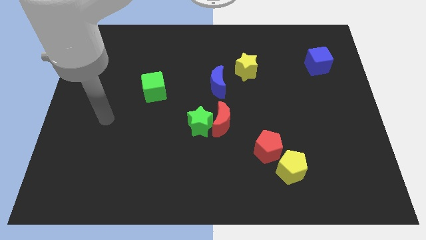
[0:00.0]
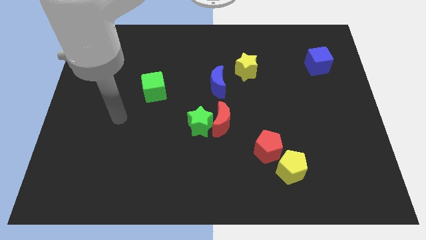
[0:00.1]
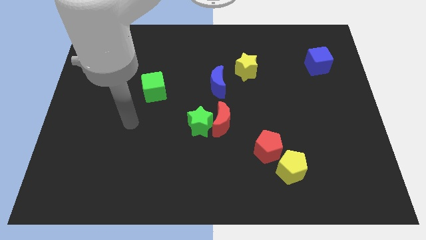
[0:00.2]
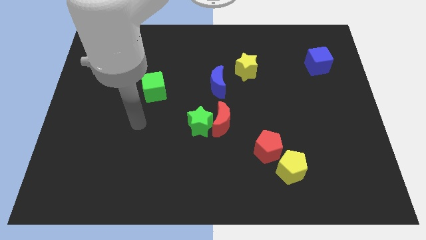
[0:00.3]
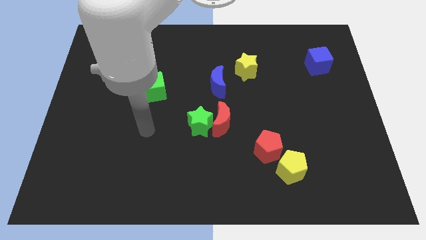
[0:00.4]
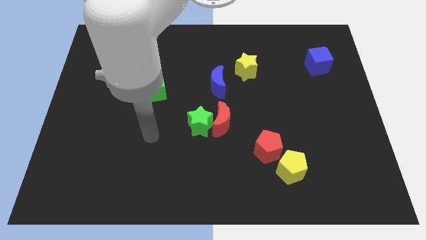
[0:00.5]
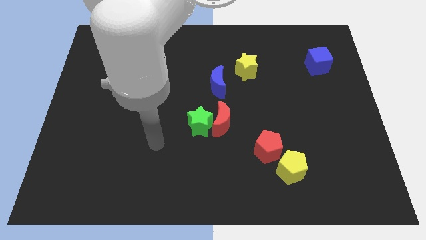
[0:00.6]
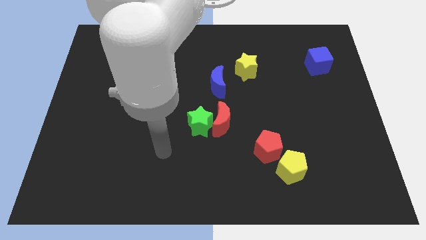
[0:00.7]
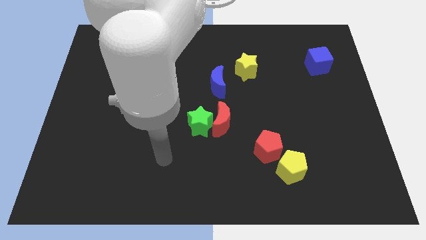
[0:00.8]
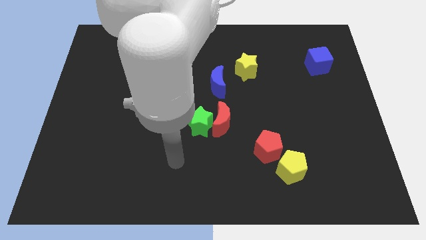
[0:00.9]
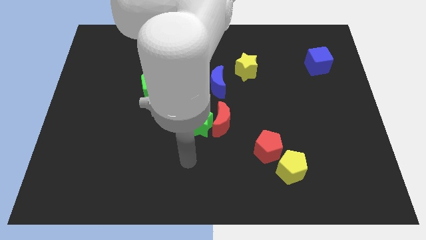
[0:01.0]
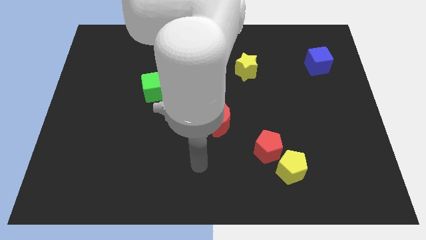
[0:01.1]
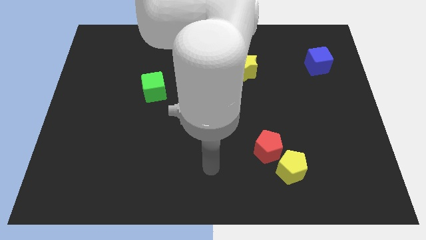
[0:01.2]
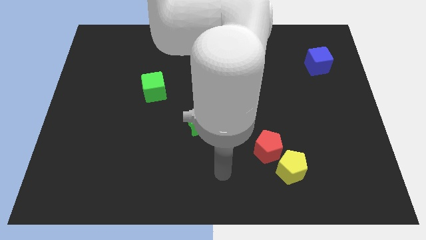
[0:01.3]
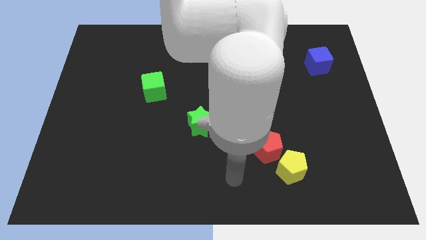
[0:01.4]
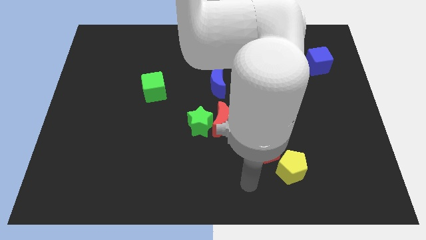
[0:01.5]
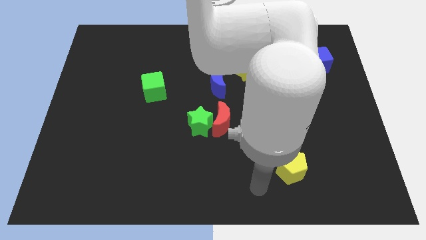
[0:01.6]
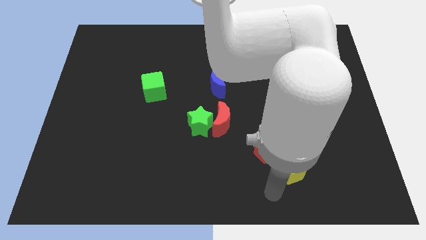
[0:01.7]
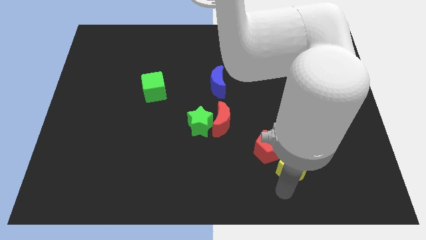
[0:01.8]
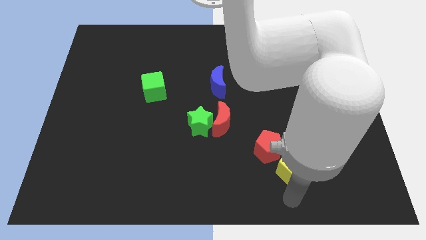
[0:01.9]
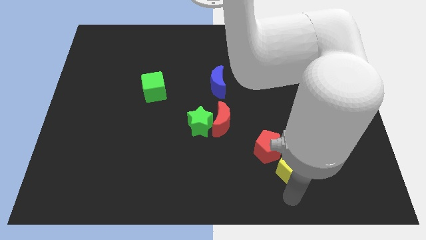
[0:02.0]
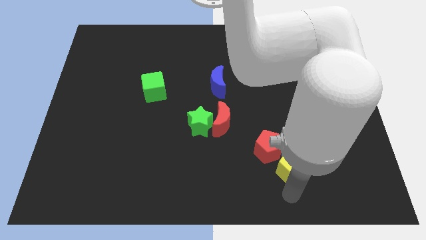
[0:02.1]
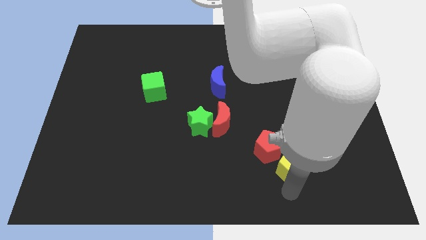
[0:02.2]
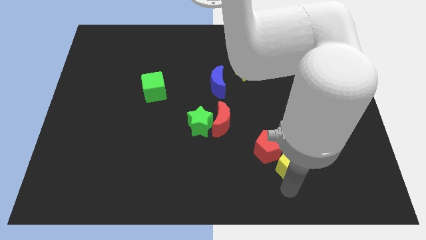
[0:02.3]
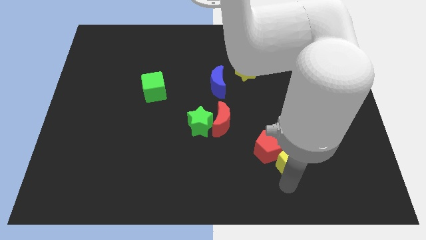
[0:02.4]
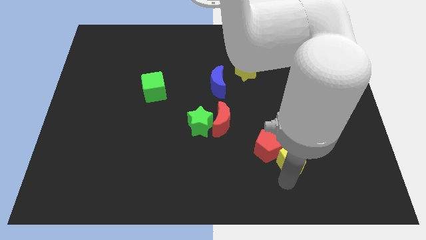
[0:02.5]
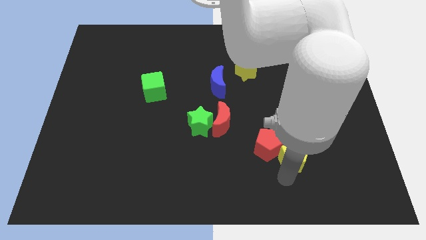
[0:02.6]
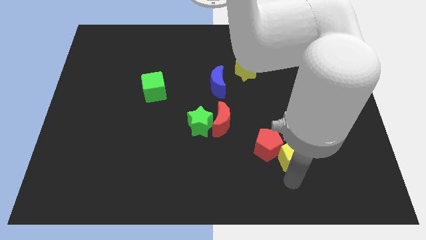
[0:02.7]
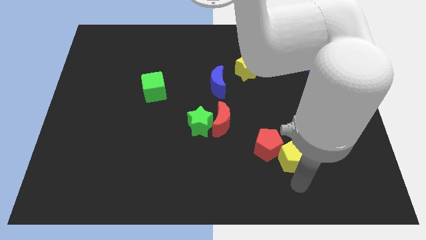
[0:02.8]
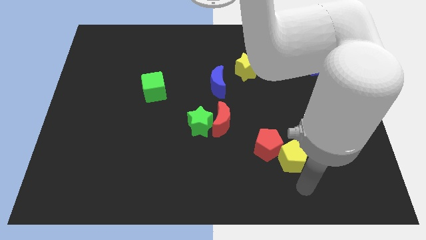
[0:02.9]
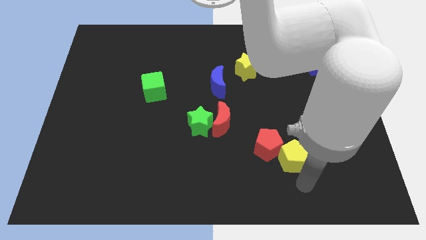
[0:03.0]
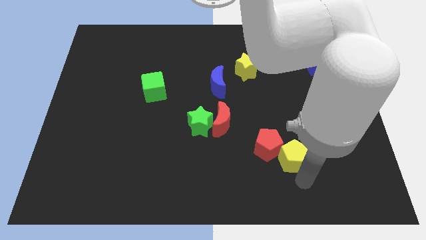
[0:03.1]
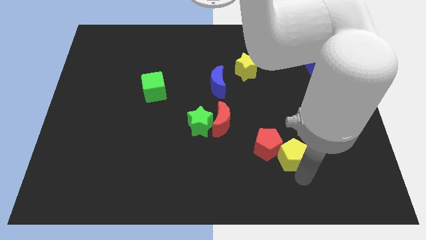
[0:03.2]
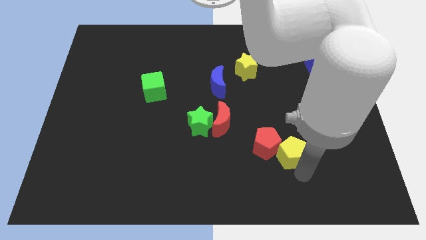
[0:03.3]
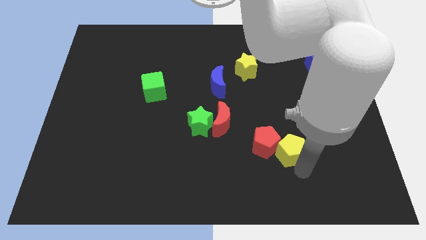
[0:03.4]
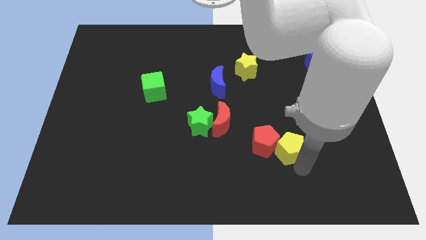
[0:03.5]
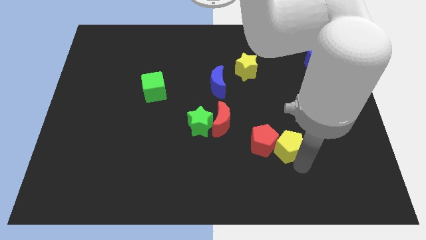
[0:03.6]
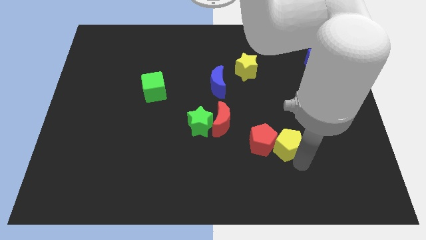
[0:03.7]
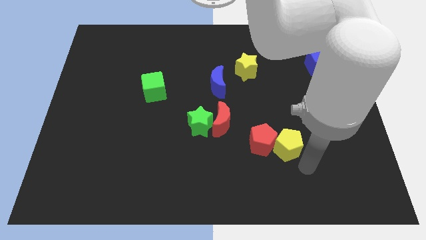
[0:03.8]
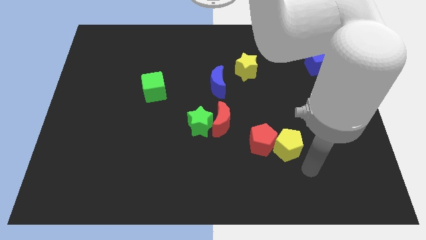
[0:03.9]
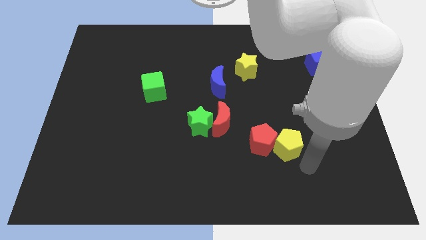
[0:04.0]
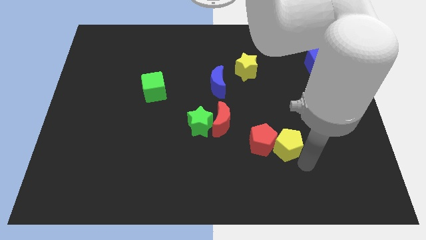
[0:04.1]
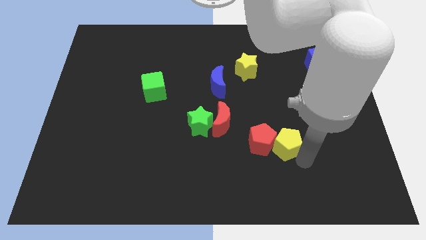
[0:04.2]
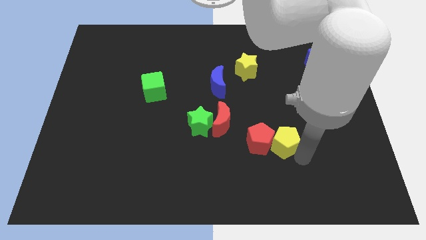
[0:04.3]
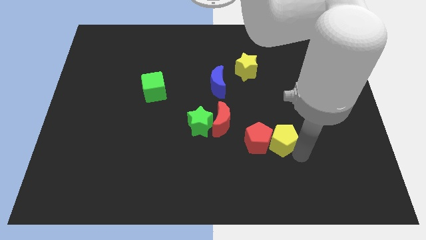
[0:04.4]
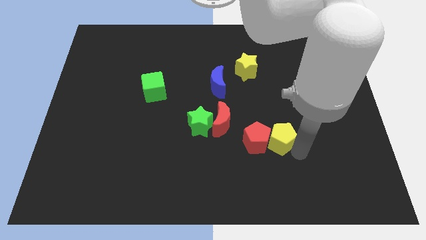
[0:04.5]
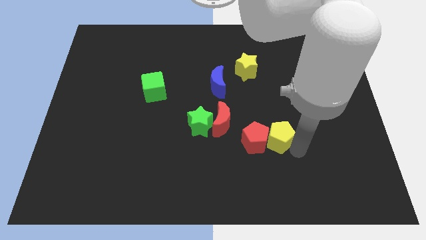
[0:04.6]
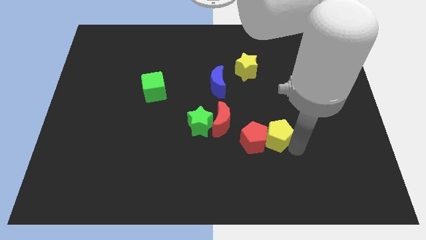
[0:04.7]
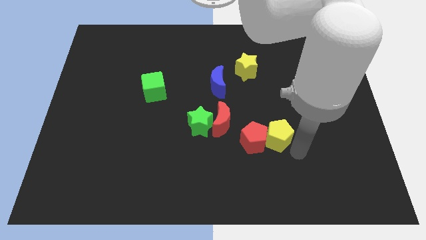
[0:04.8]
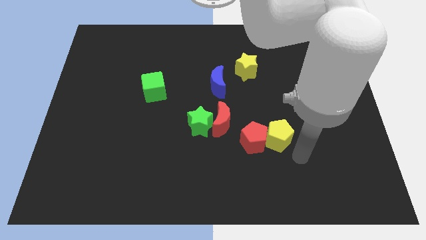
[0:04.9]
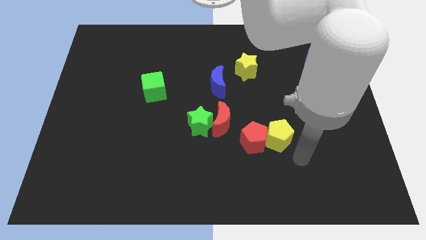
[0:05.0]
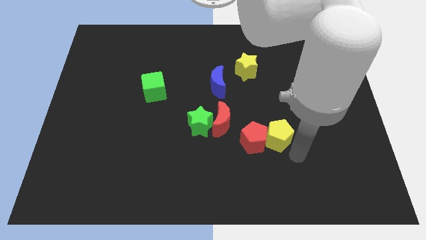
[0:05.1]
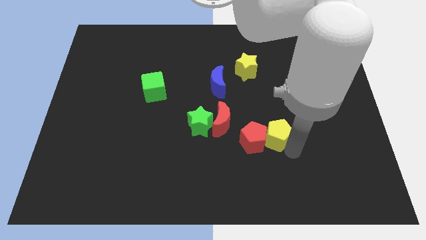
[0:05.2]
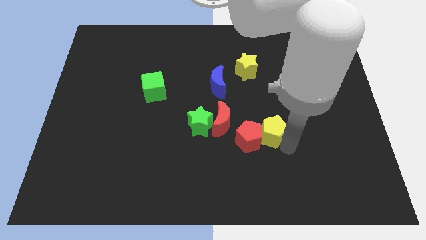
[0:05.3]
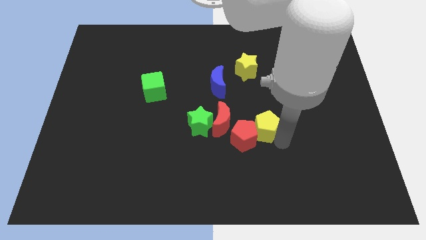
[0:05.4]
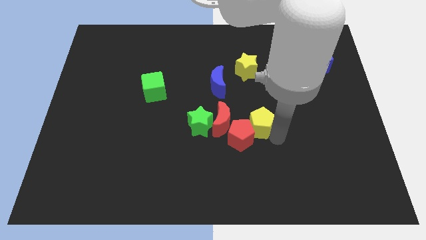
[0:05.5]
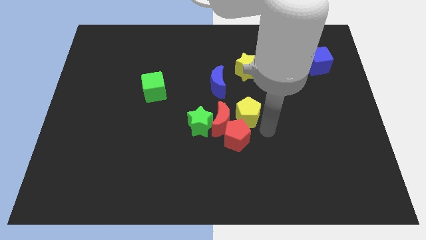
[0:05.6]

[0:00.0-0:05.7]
slide the yellow pentagon to the middle

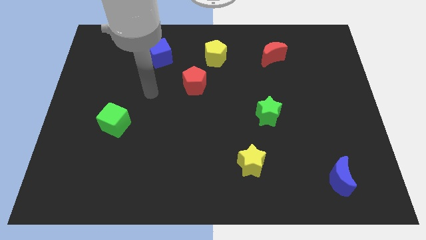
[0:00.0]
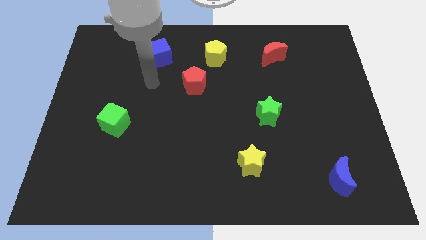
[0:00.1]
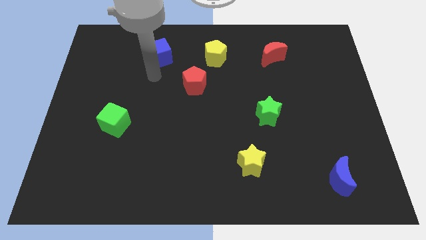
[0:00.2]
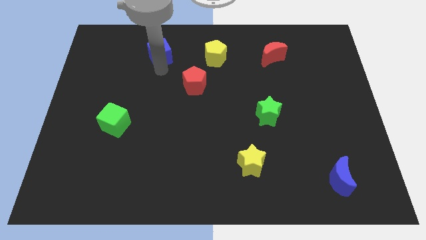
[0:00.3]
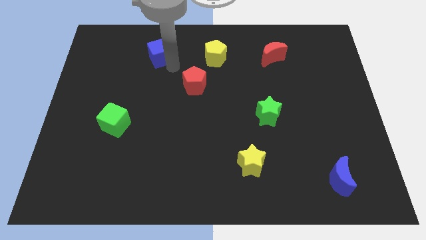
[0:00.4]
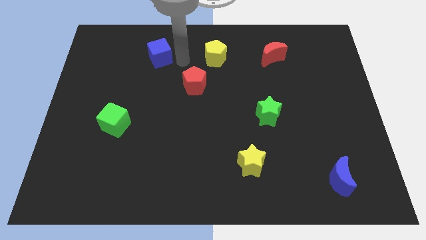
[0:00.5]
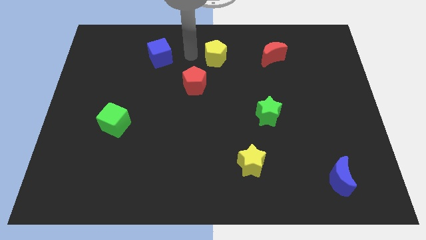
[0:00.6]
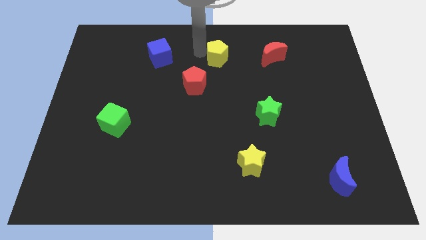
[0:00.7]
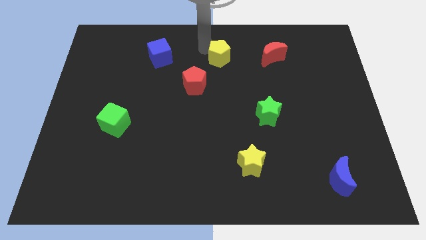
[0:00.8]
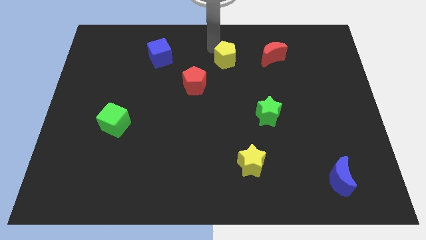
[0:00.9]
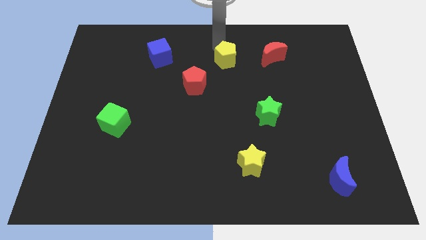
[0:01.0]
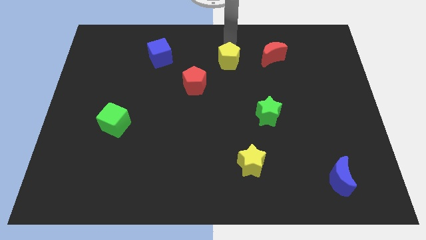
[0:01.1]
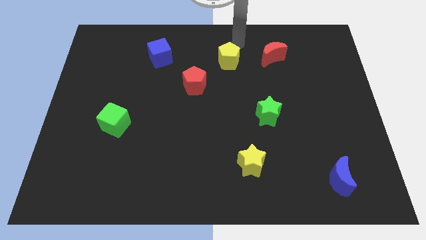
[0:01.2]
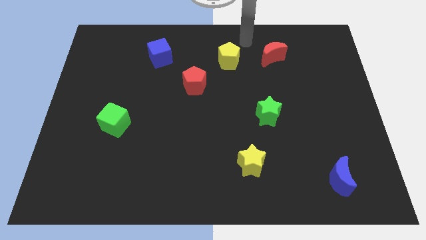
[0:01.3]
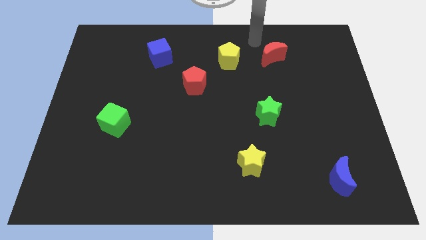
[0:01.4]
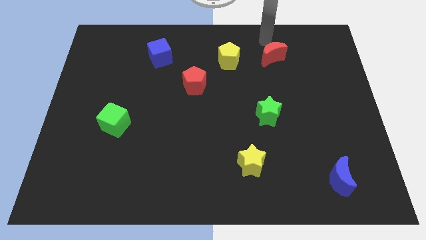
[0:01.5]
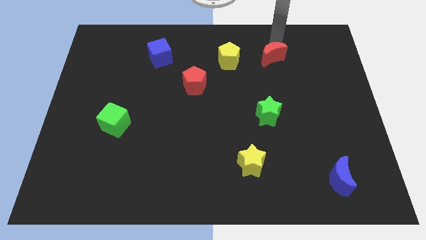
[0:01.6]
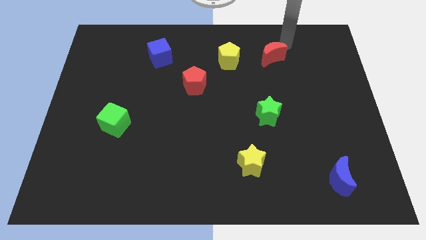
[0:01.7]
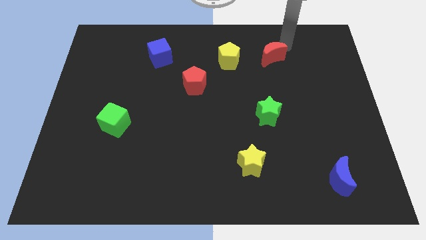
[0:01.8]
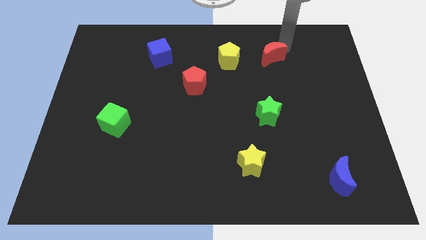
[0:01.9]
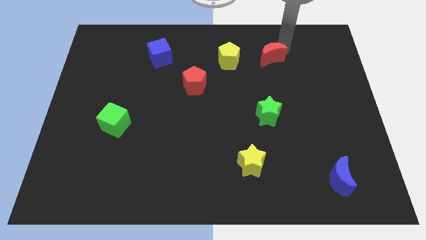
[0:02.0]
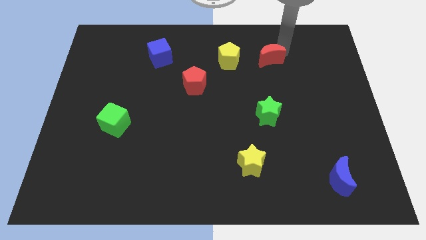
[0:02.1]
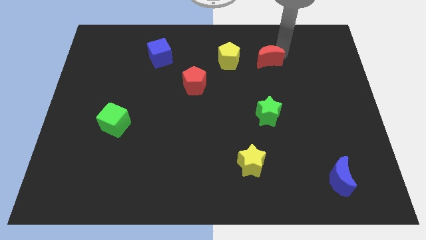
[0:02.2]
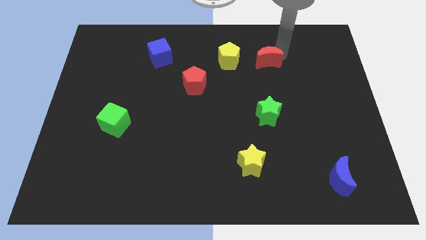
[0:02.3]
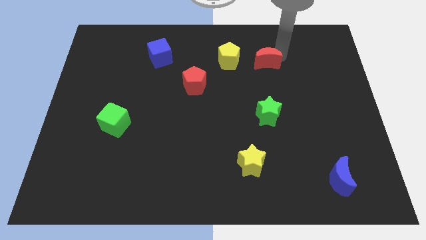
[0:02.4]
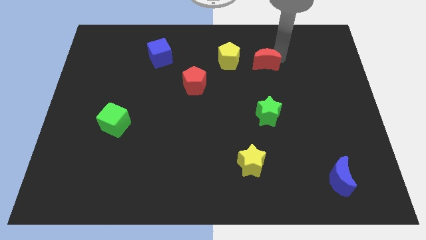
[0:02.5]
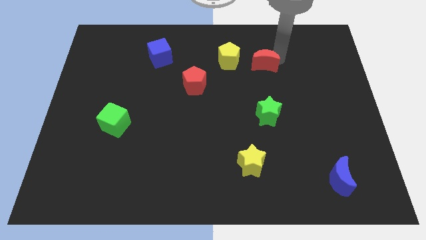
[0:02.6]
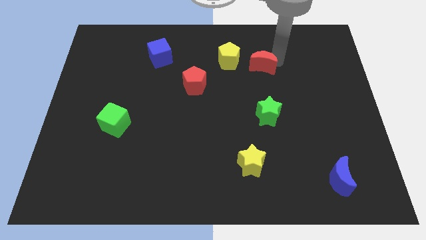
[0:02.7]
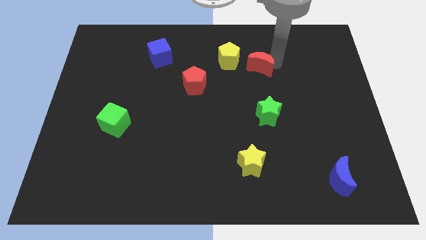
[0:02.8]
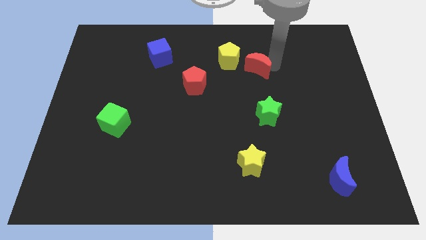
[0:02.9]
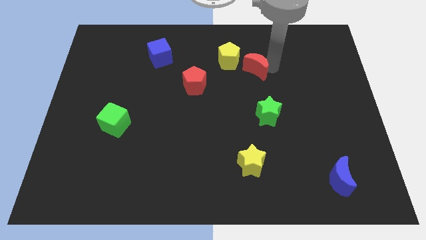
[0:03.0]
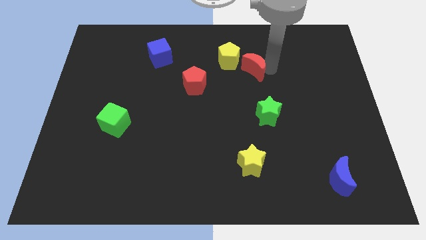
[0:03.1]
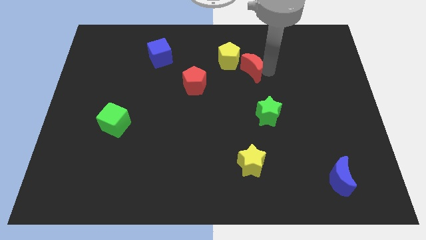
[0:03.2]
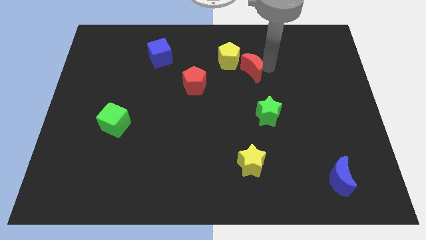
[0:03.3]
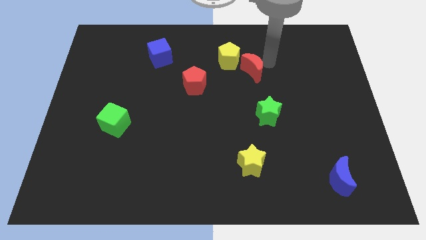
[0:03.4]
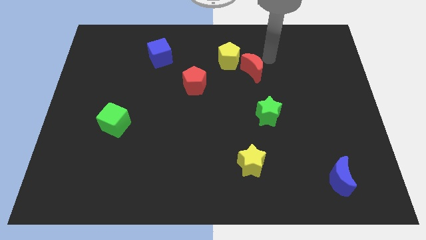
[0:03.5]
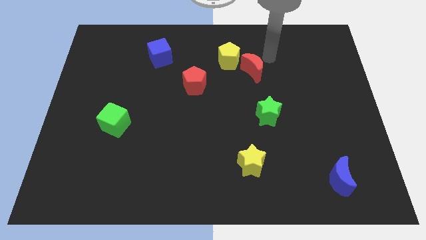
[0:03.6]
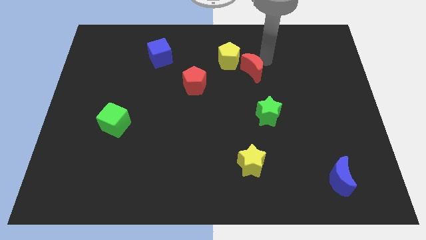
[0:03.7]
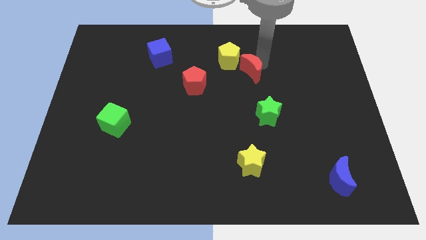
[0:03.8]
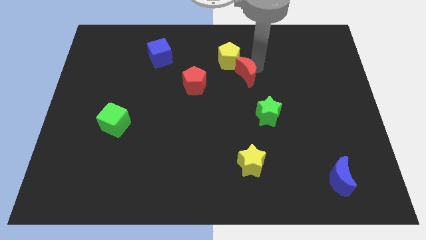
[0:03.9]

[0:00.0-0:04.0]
put the red moon to the center
